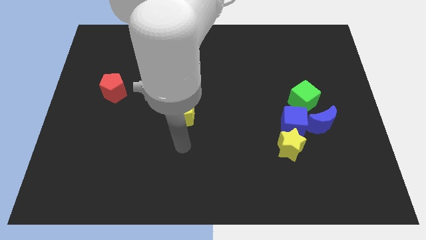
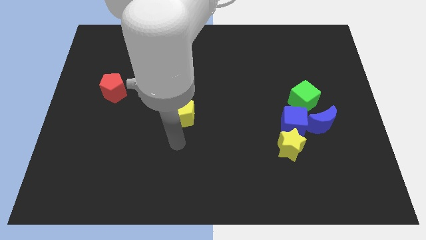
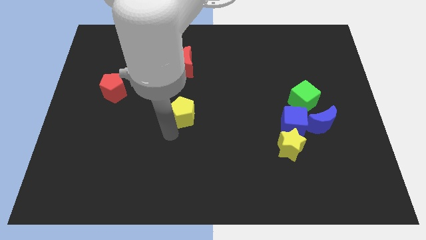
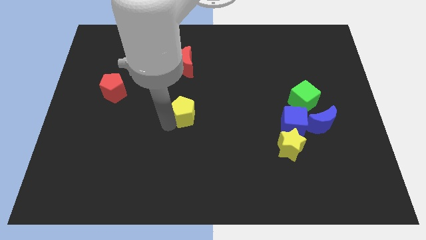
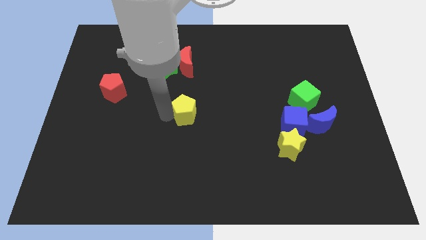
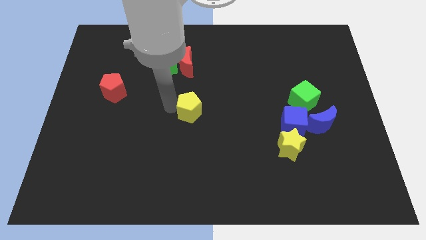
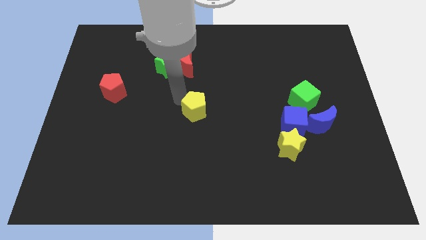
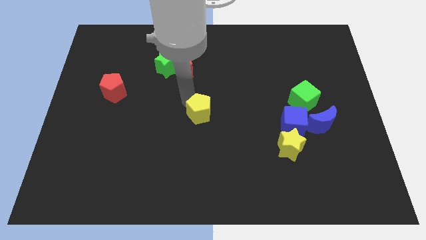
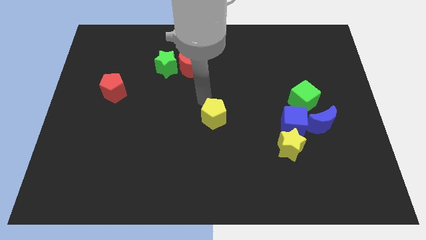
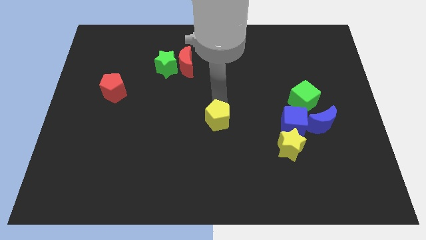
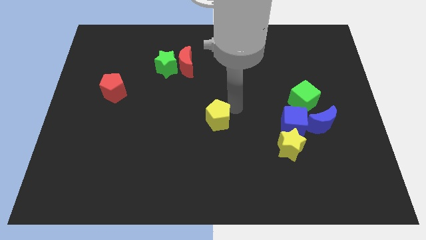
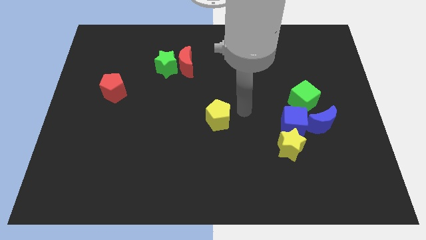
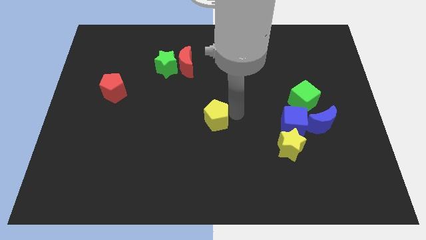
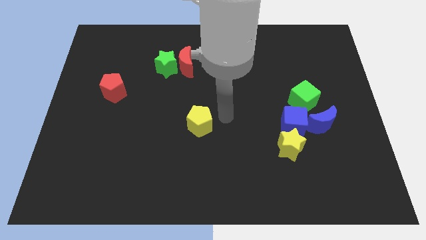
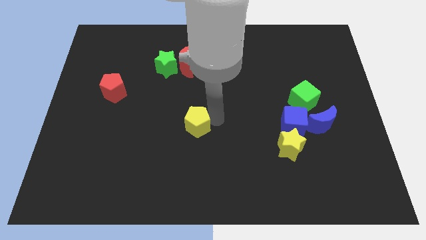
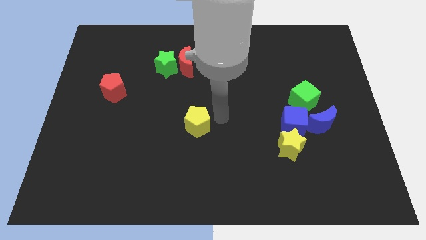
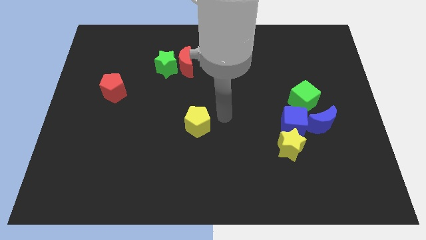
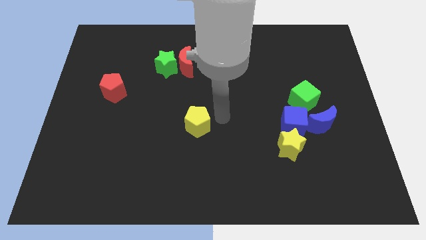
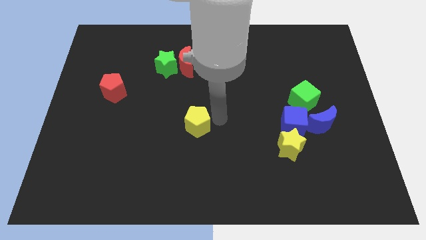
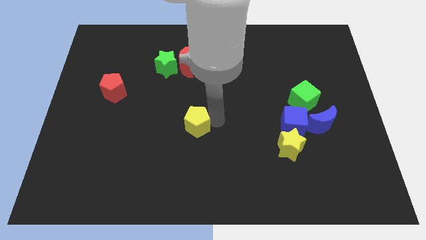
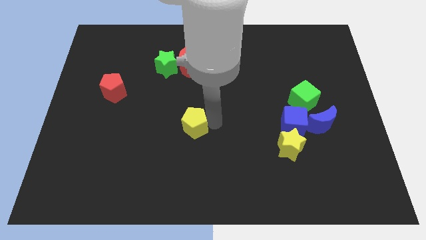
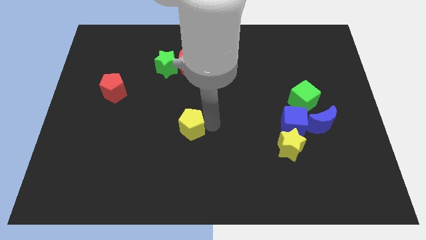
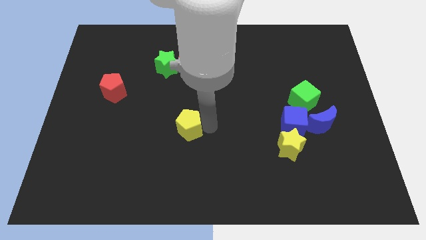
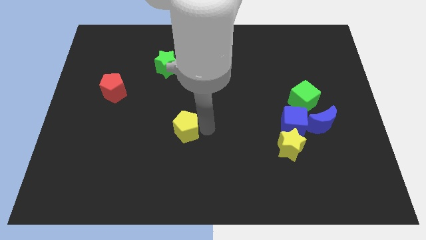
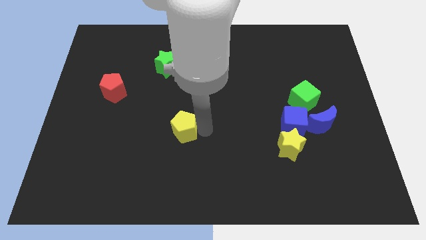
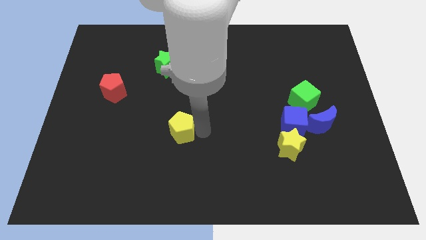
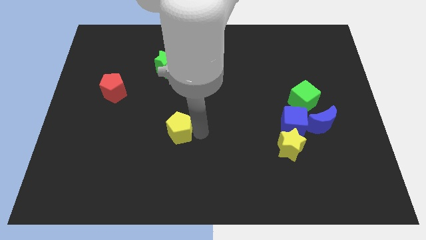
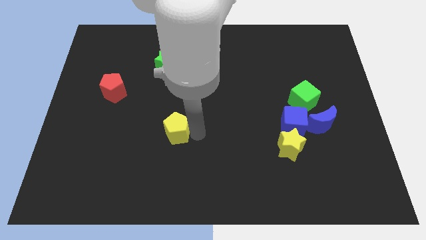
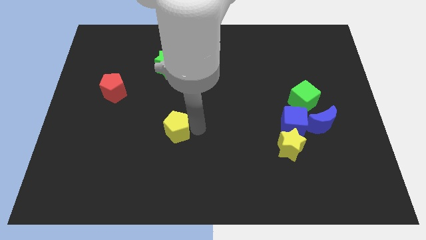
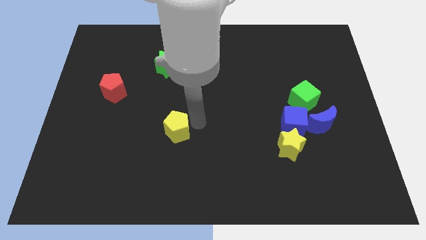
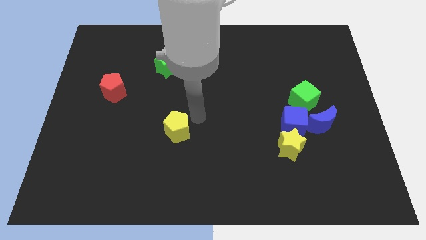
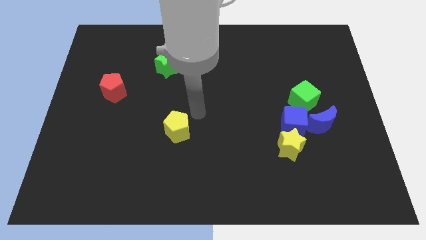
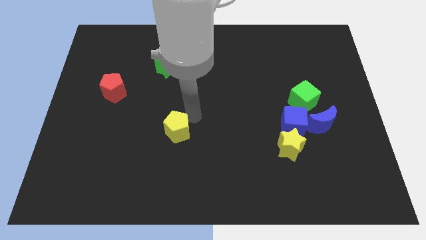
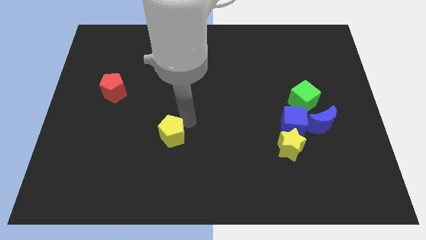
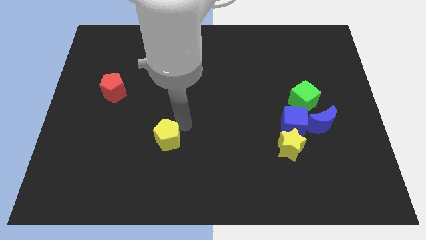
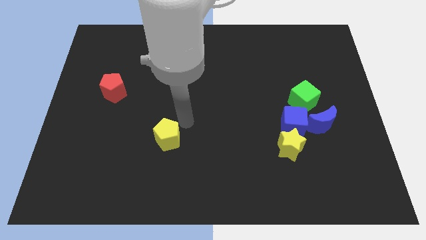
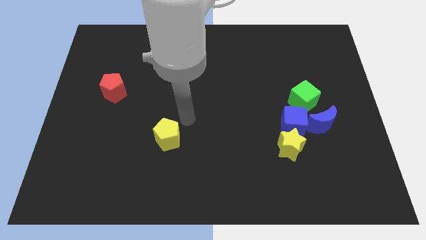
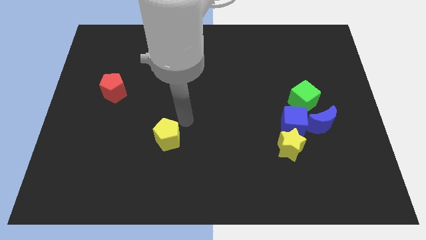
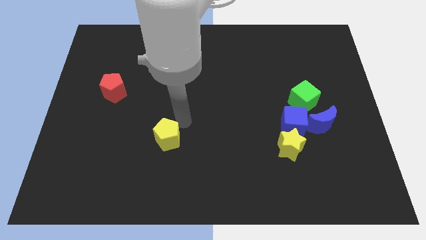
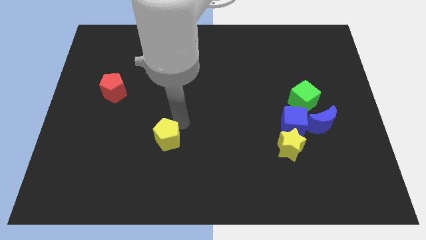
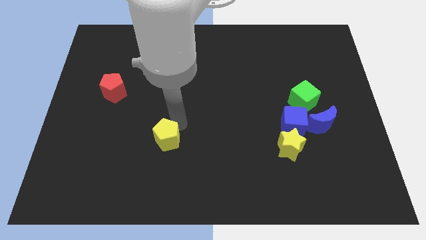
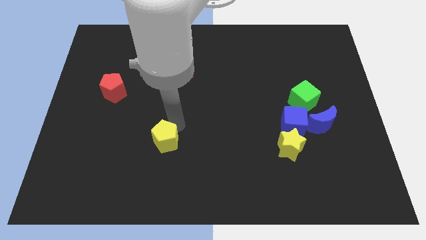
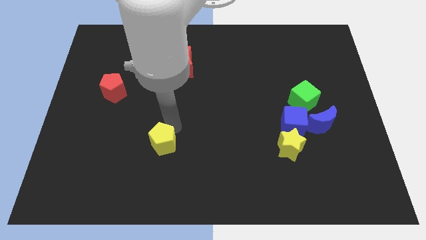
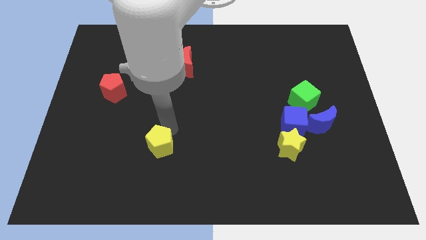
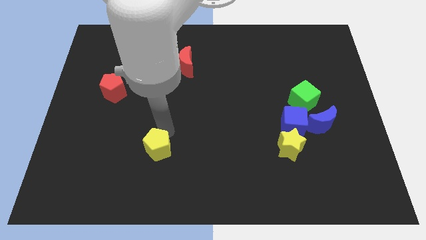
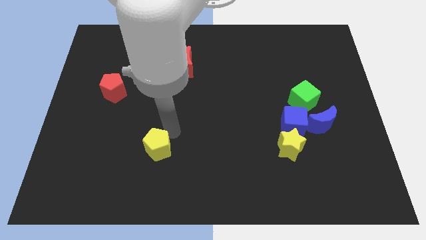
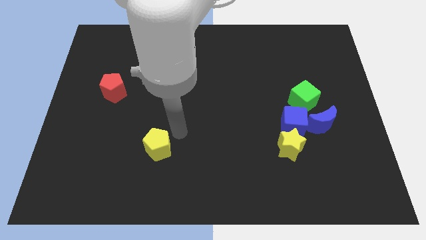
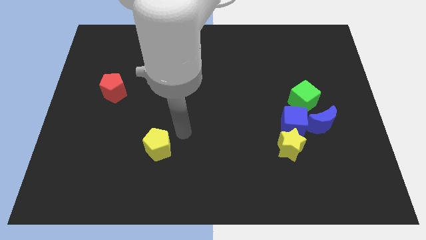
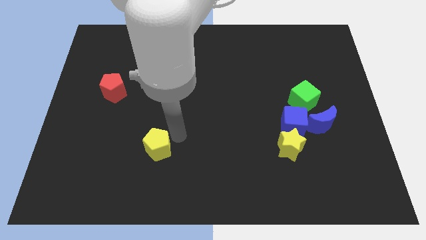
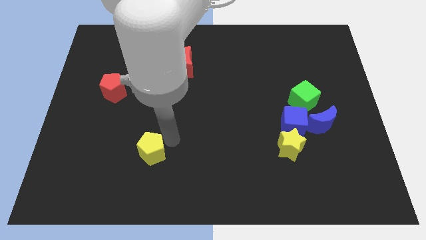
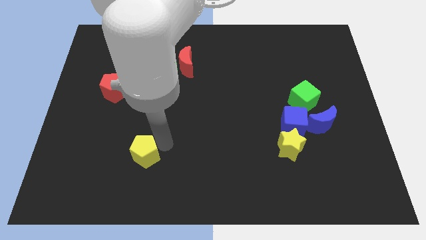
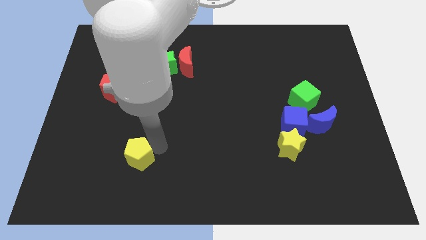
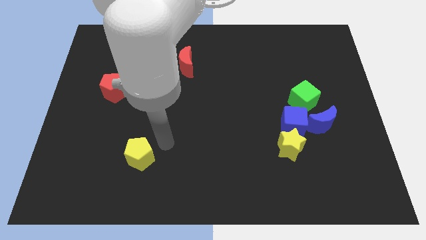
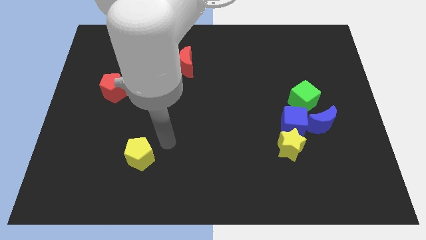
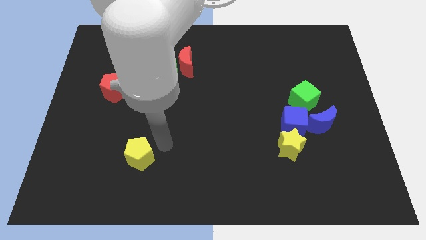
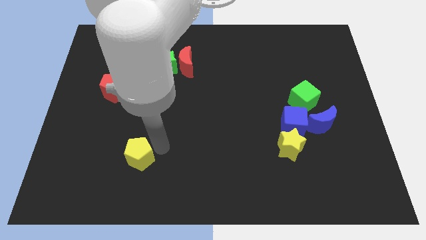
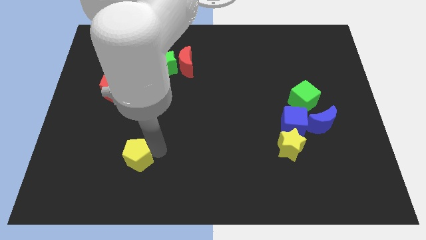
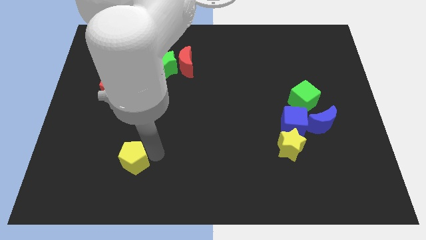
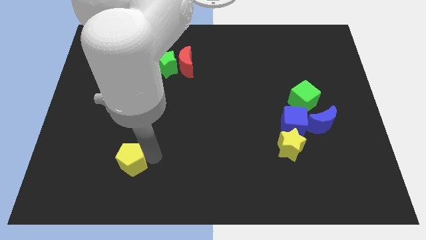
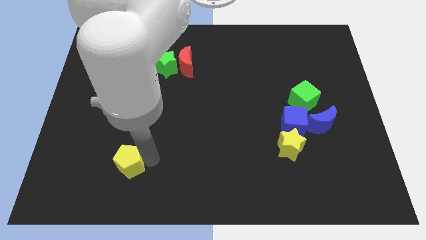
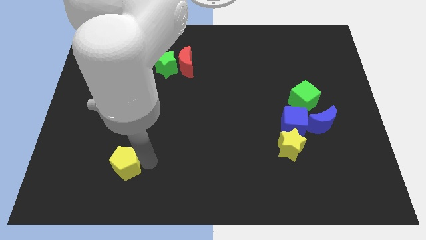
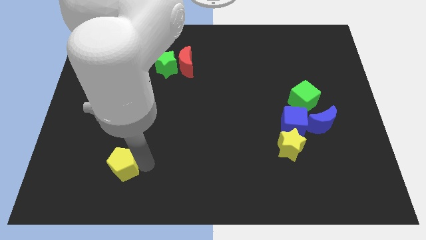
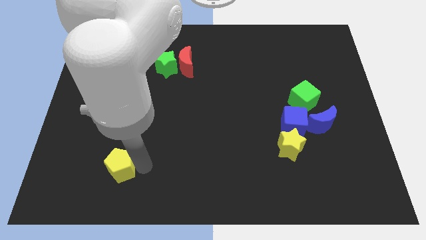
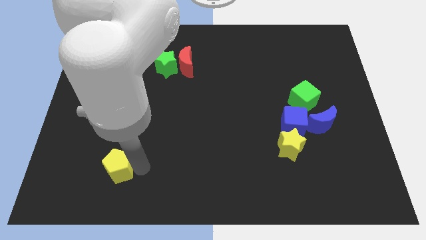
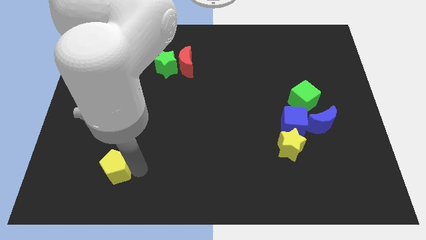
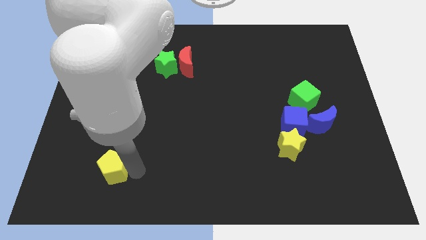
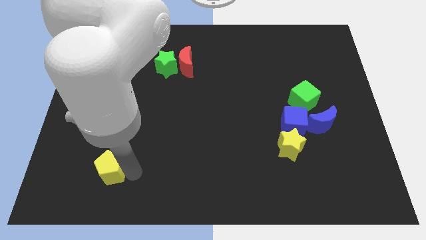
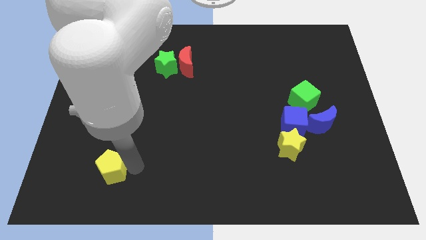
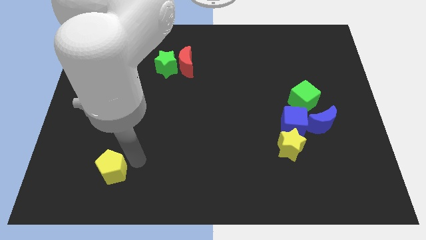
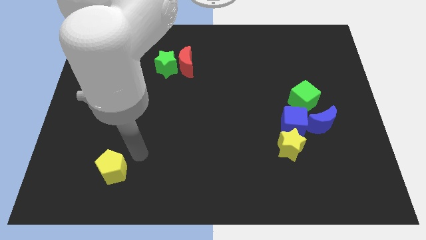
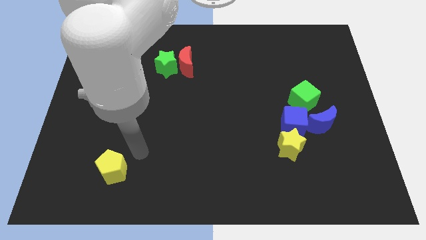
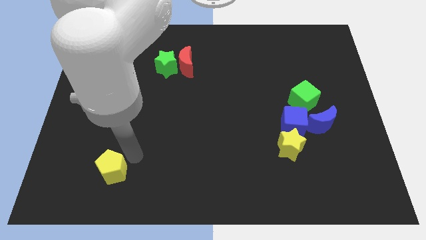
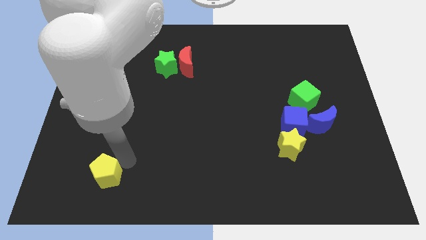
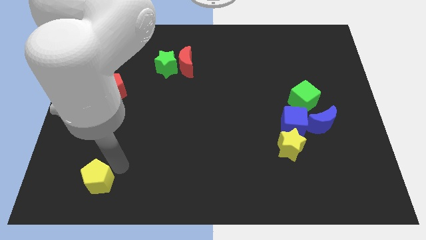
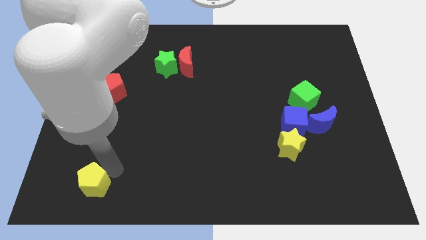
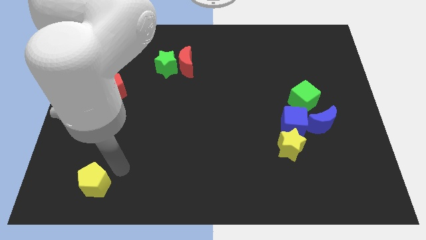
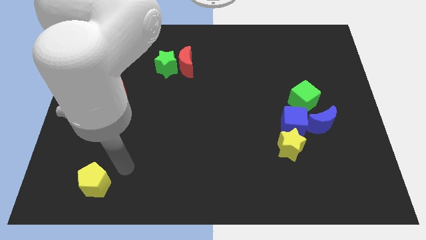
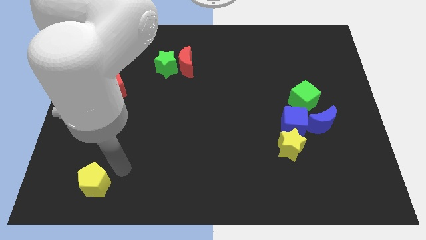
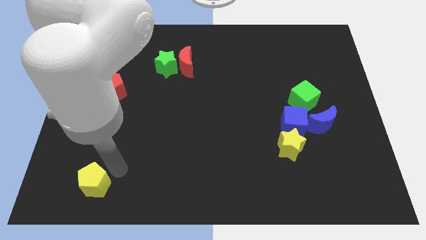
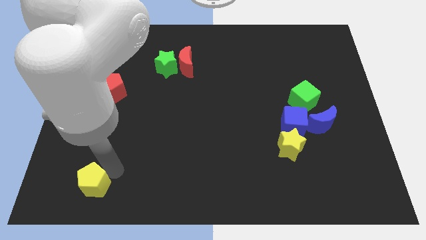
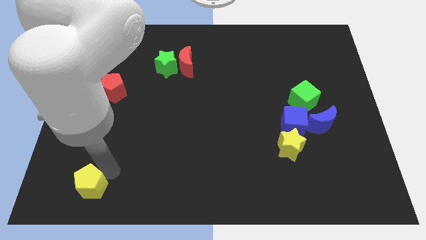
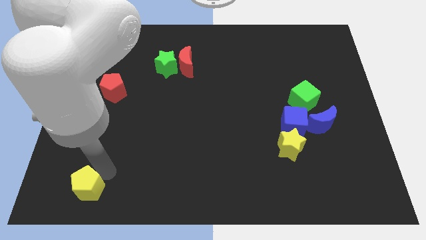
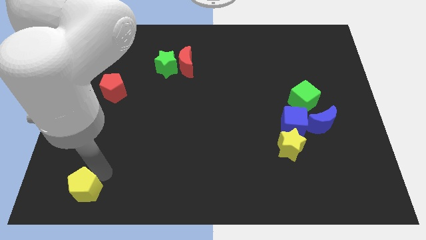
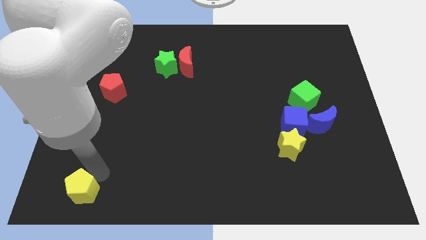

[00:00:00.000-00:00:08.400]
move the yellow pentagon to the bottom left corner
